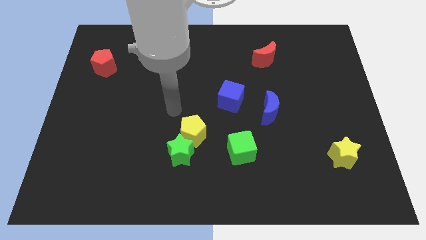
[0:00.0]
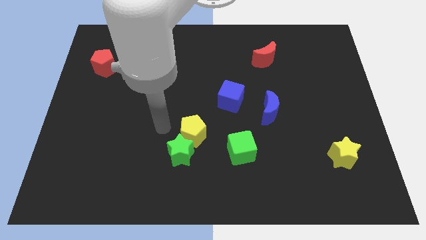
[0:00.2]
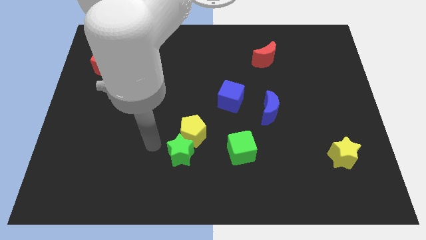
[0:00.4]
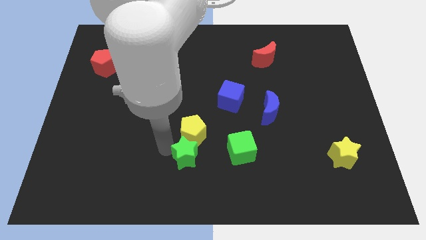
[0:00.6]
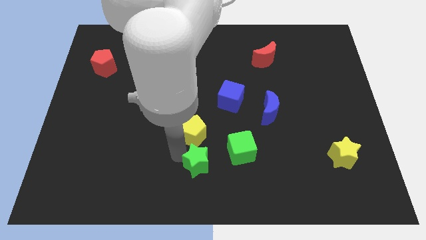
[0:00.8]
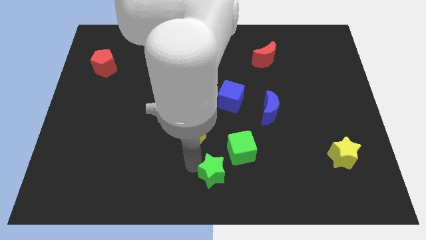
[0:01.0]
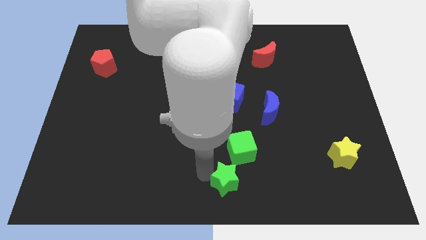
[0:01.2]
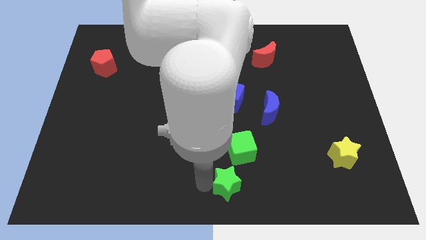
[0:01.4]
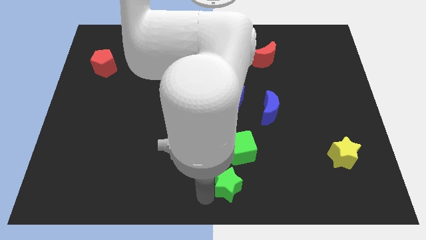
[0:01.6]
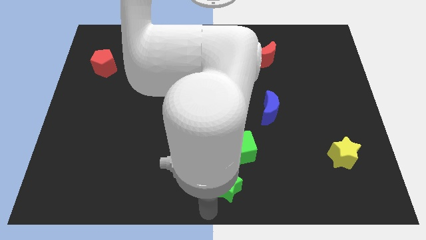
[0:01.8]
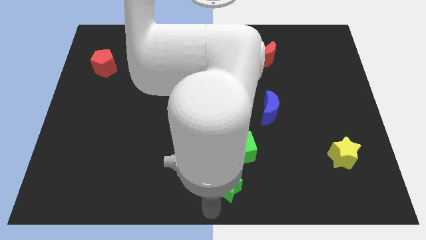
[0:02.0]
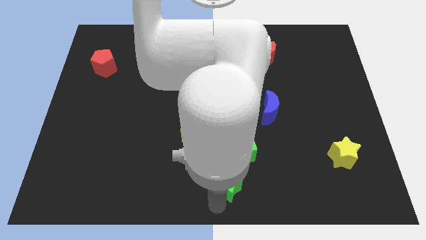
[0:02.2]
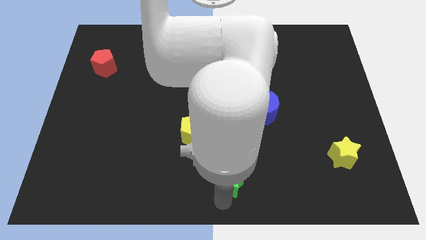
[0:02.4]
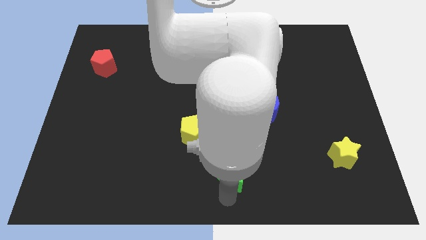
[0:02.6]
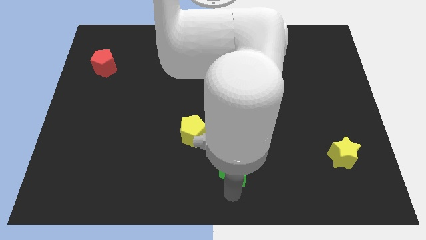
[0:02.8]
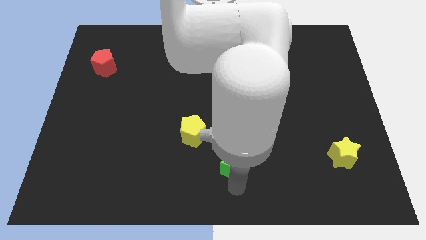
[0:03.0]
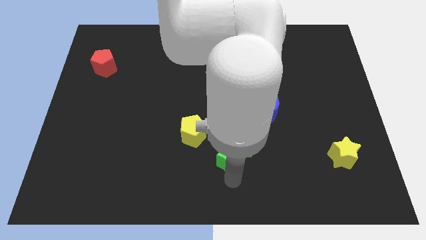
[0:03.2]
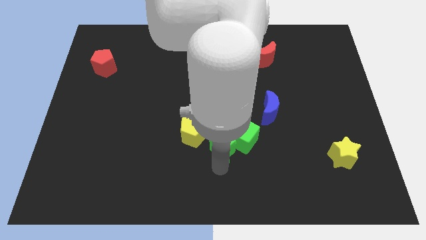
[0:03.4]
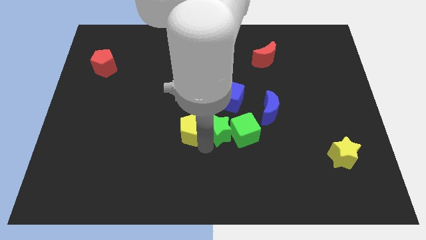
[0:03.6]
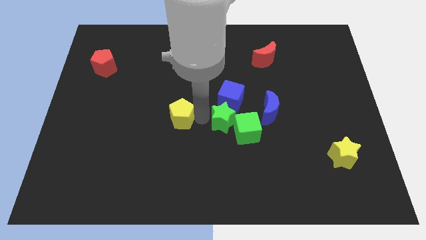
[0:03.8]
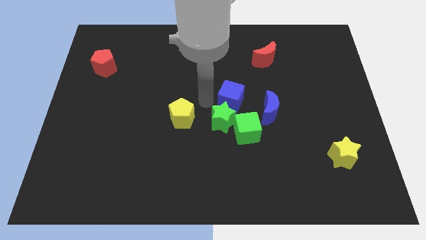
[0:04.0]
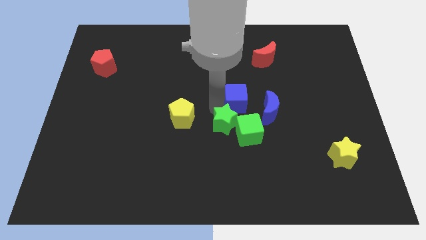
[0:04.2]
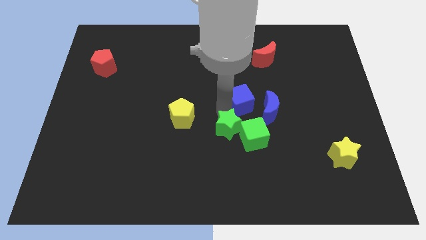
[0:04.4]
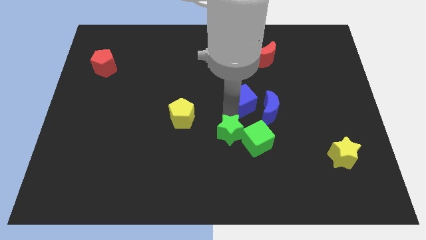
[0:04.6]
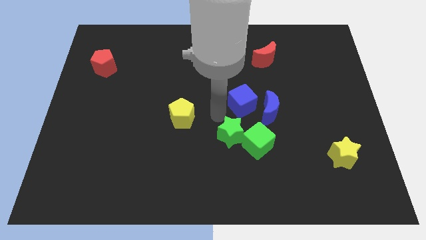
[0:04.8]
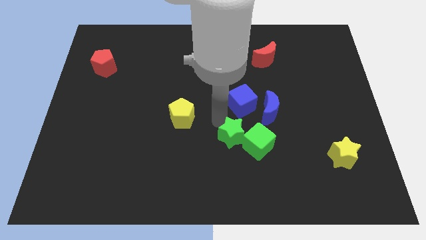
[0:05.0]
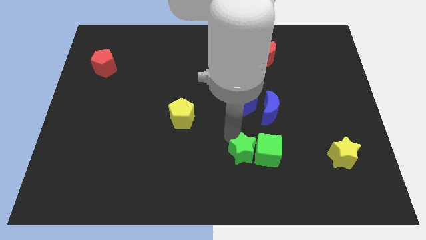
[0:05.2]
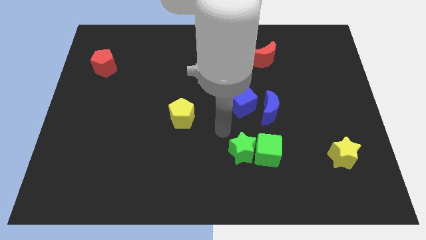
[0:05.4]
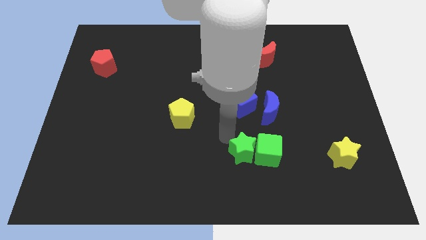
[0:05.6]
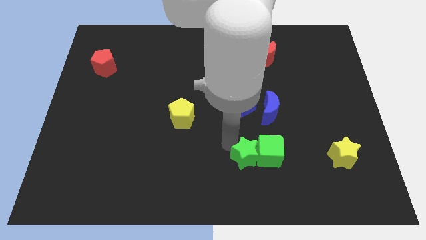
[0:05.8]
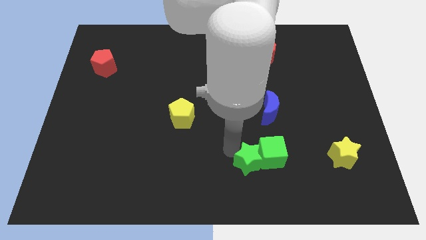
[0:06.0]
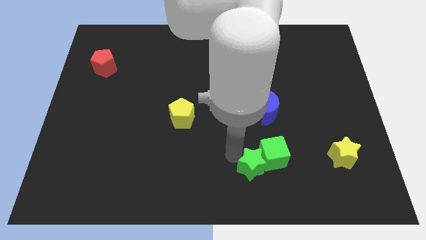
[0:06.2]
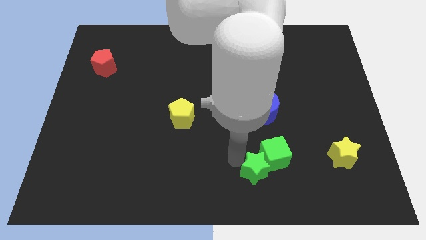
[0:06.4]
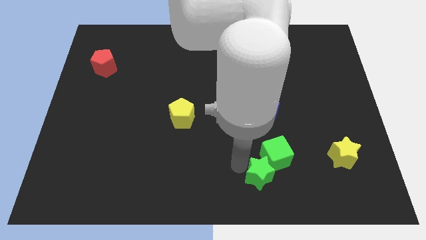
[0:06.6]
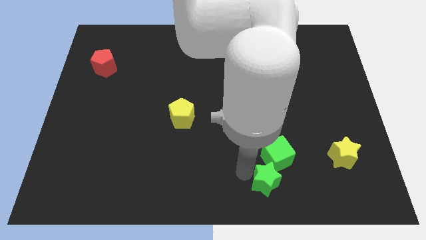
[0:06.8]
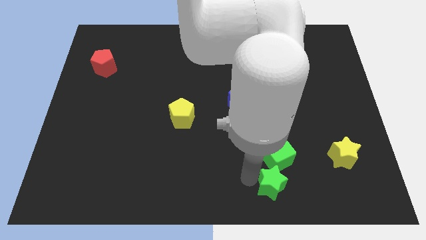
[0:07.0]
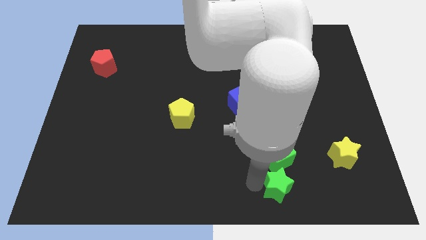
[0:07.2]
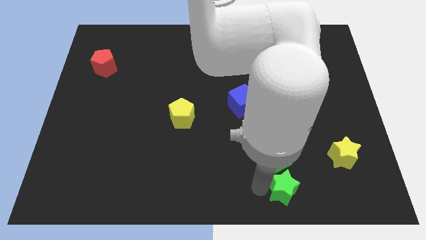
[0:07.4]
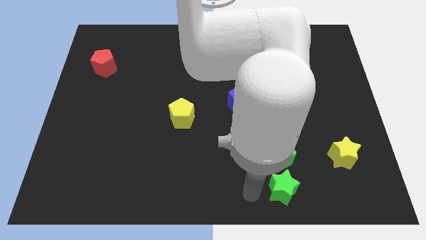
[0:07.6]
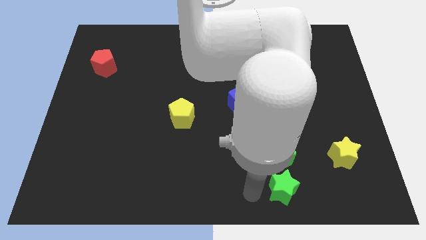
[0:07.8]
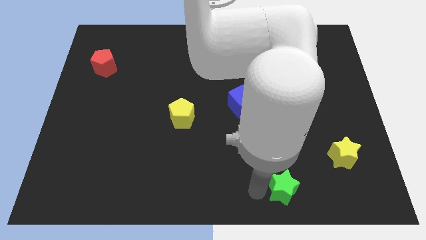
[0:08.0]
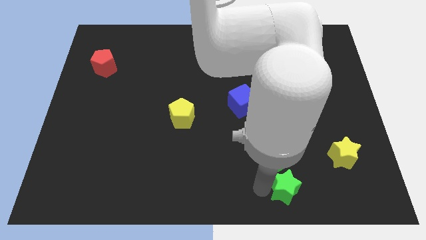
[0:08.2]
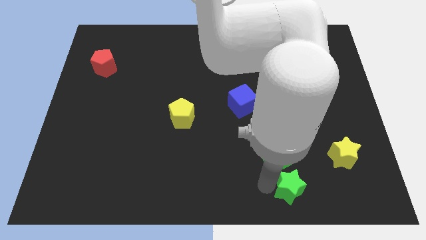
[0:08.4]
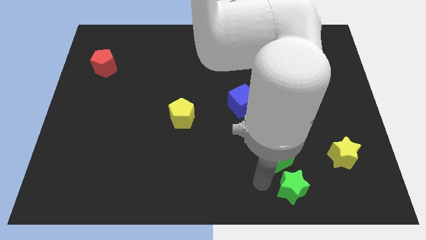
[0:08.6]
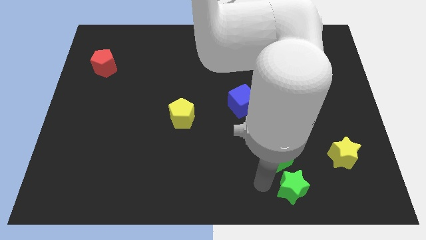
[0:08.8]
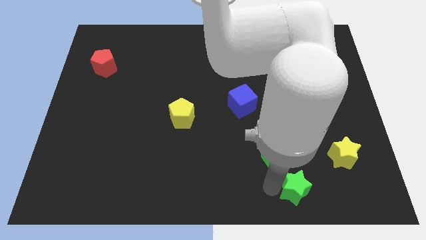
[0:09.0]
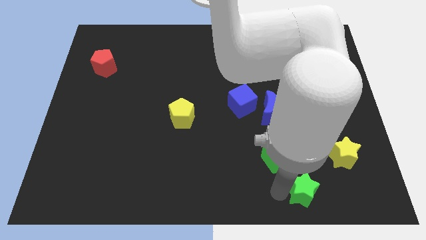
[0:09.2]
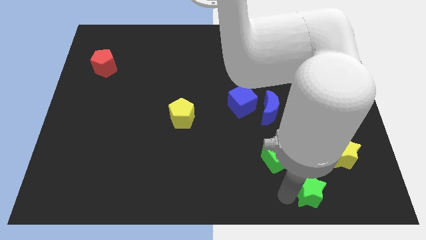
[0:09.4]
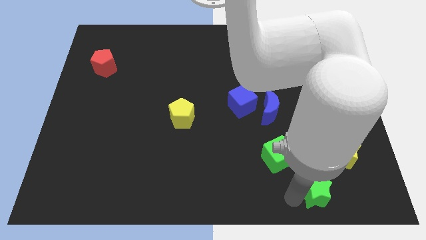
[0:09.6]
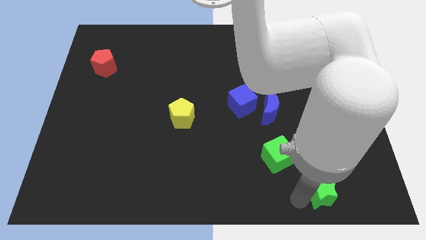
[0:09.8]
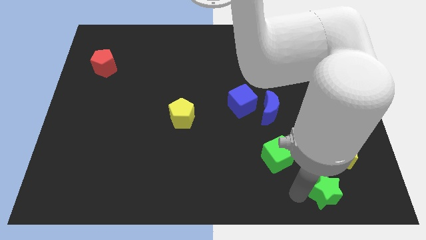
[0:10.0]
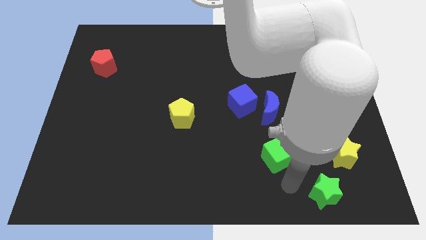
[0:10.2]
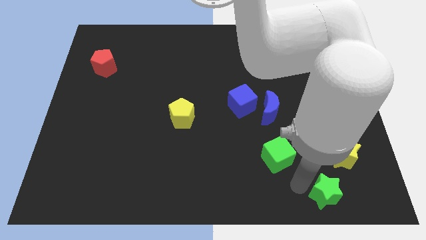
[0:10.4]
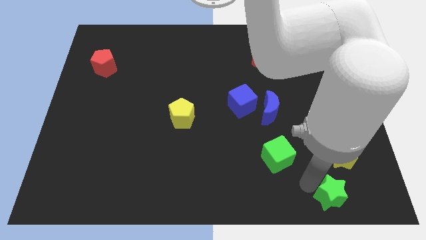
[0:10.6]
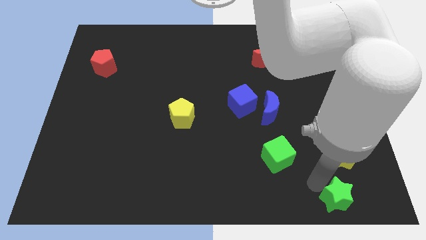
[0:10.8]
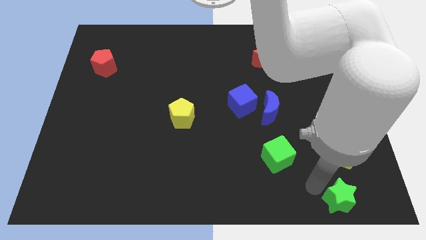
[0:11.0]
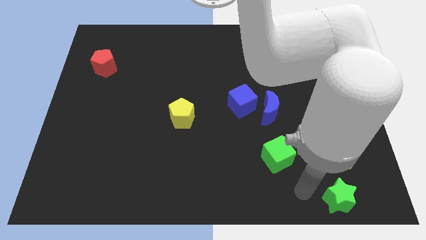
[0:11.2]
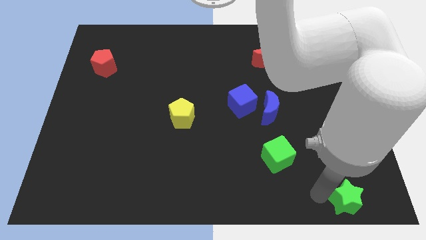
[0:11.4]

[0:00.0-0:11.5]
move the green star to the bottom right of the board

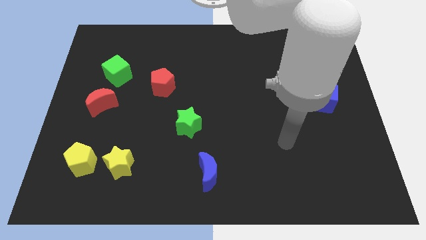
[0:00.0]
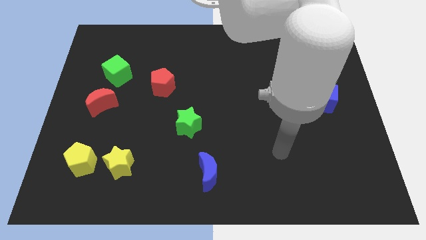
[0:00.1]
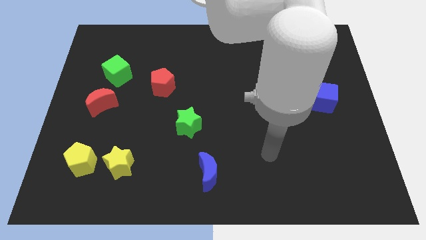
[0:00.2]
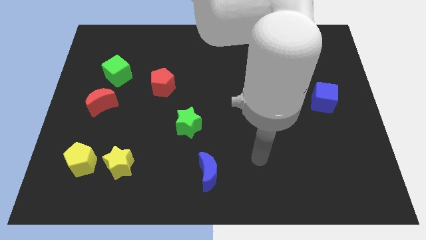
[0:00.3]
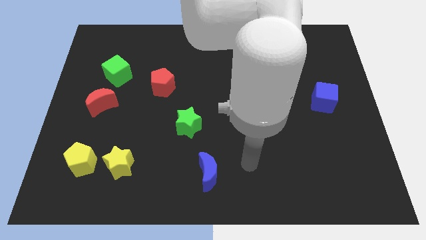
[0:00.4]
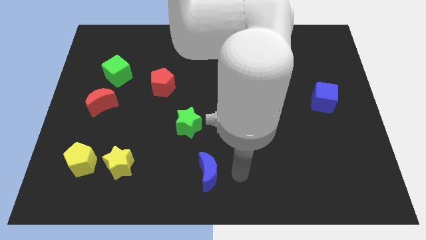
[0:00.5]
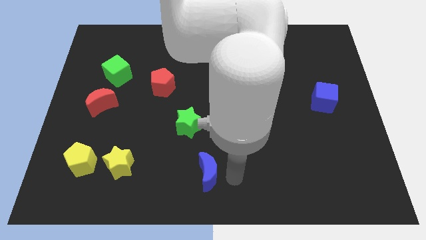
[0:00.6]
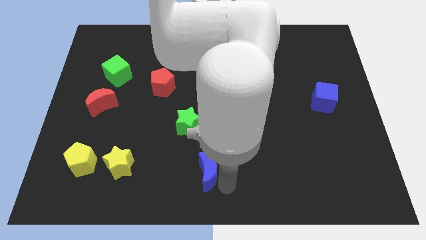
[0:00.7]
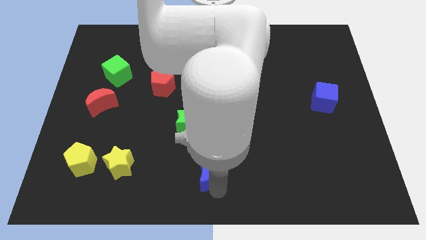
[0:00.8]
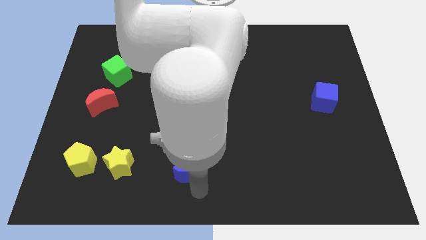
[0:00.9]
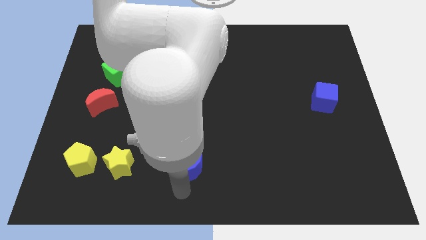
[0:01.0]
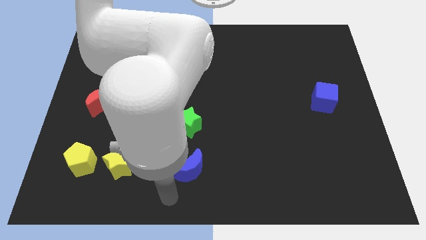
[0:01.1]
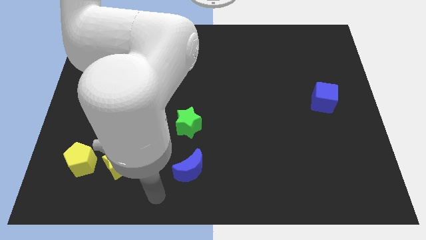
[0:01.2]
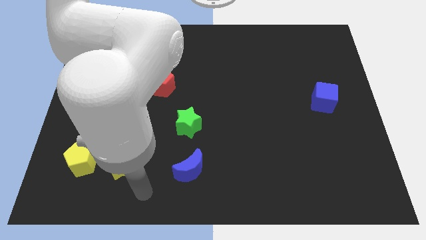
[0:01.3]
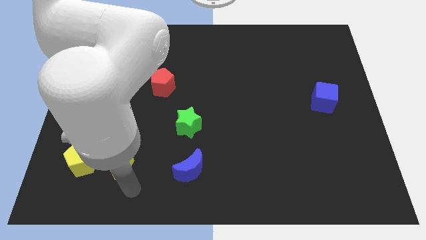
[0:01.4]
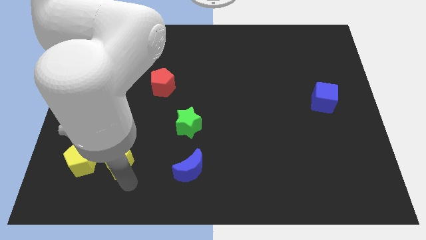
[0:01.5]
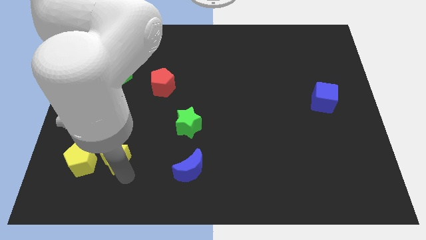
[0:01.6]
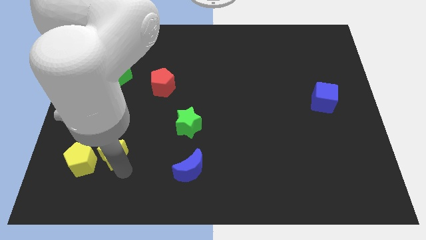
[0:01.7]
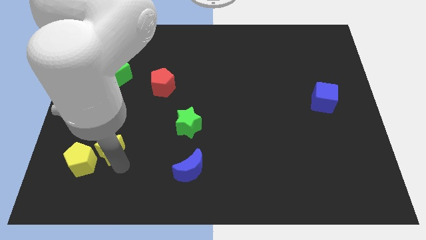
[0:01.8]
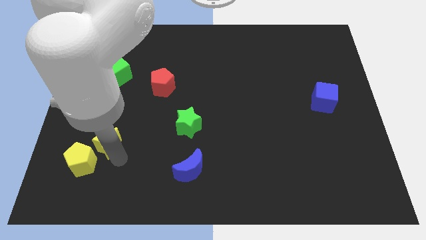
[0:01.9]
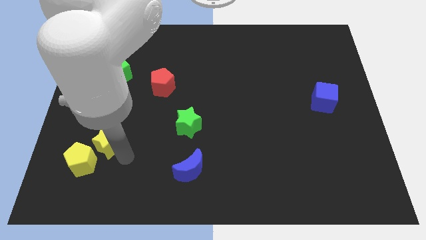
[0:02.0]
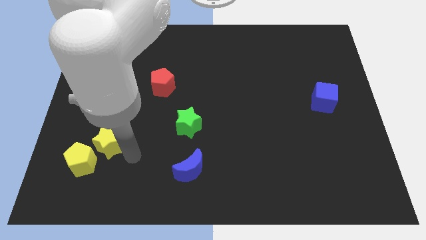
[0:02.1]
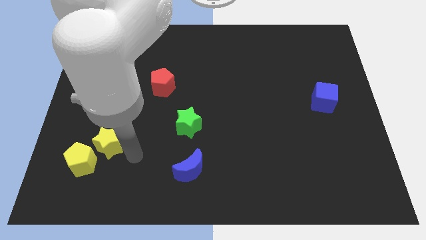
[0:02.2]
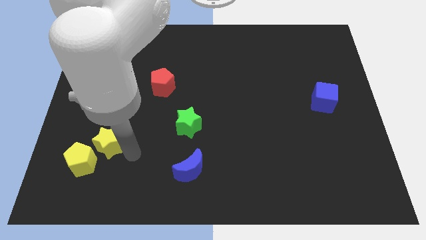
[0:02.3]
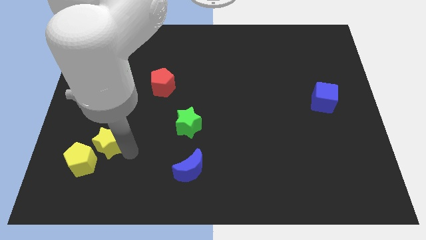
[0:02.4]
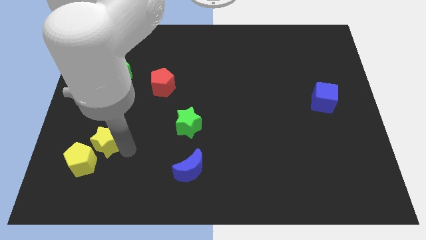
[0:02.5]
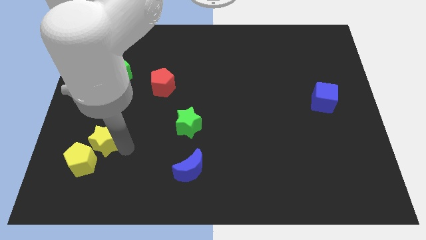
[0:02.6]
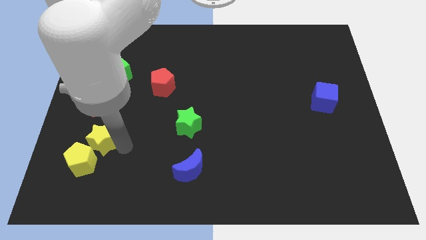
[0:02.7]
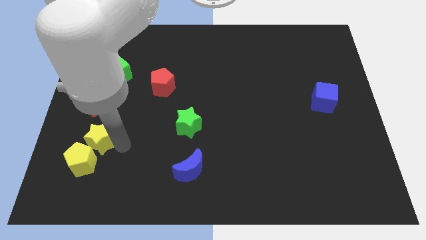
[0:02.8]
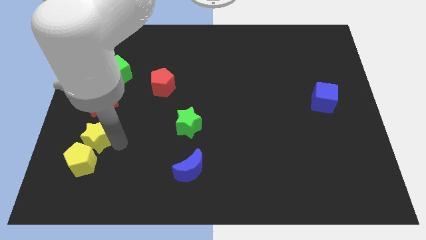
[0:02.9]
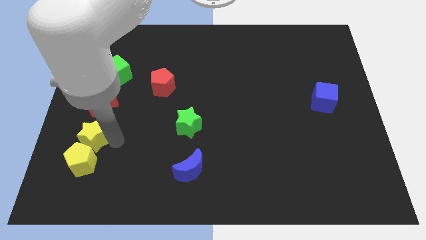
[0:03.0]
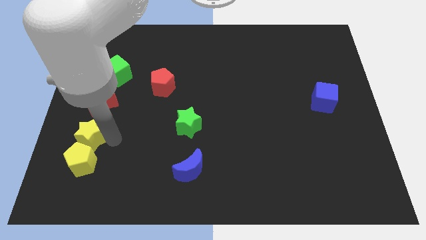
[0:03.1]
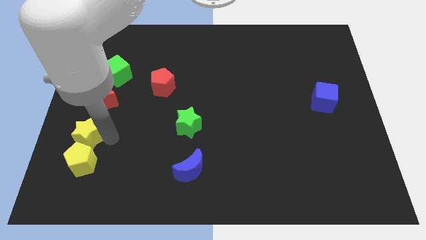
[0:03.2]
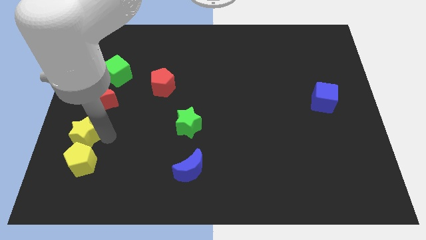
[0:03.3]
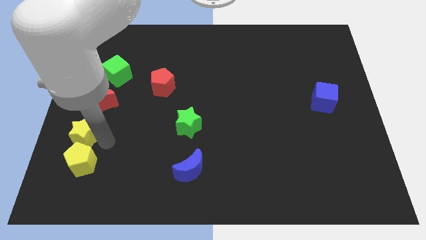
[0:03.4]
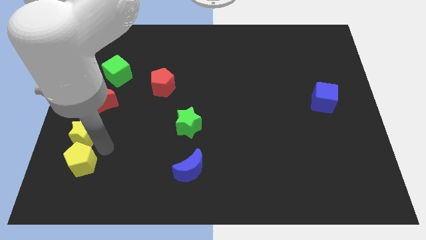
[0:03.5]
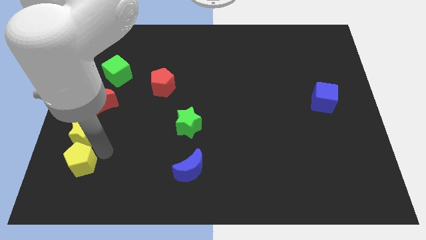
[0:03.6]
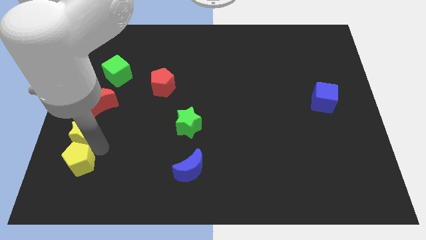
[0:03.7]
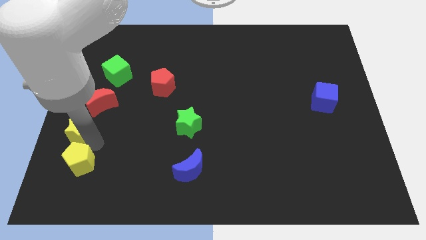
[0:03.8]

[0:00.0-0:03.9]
slide the yellow star to the left side of the board
